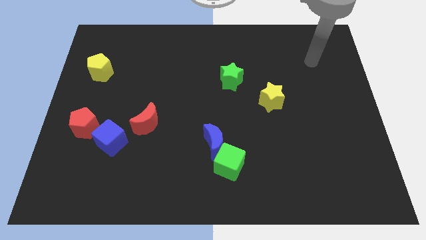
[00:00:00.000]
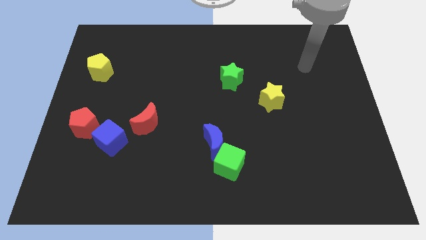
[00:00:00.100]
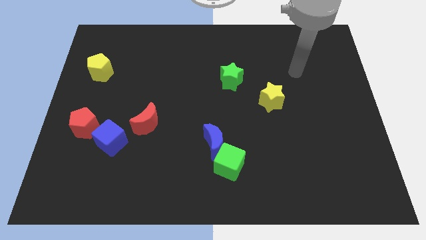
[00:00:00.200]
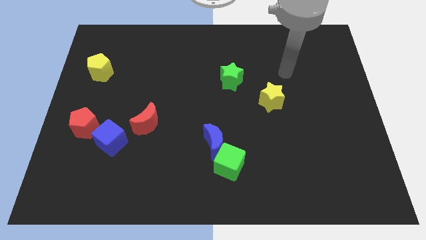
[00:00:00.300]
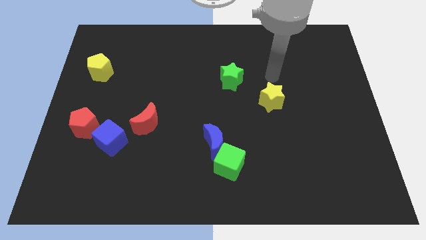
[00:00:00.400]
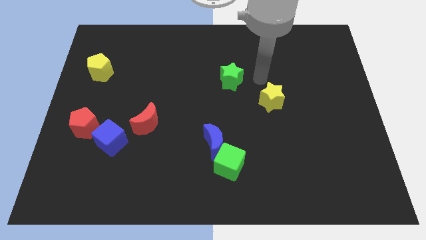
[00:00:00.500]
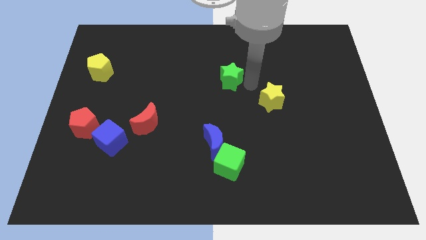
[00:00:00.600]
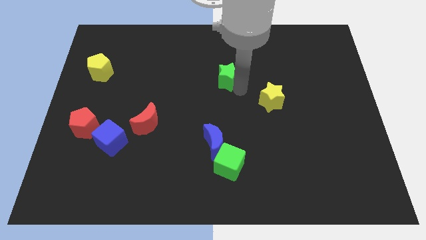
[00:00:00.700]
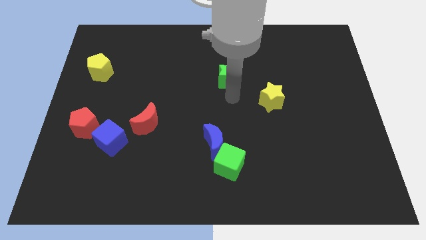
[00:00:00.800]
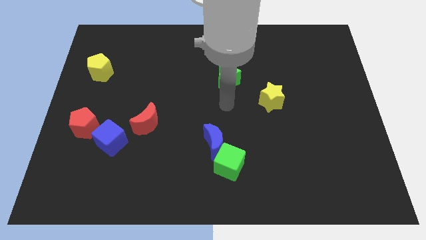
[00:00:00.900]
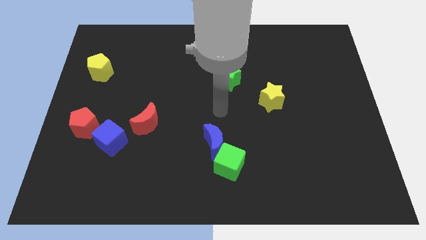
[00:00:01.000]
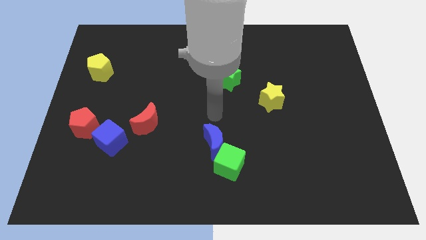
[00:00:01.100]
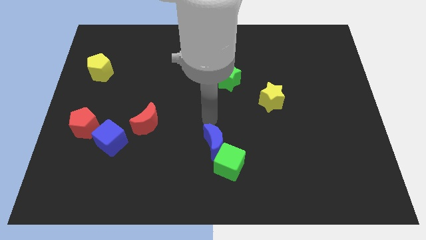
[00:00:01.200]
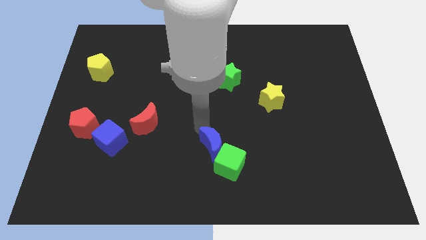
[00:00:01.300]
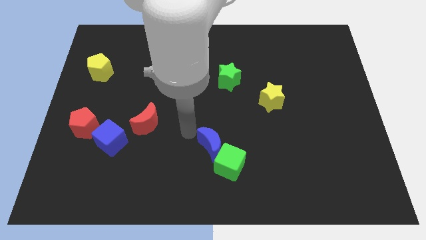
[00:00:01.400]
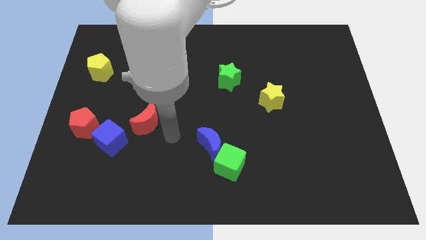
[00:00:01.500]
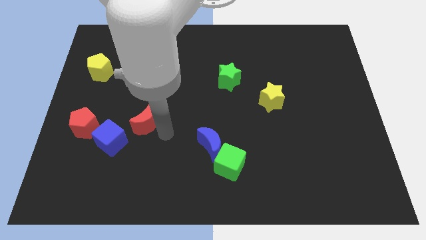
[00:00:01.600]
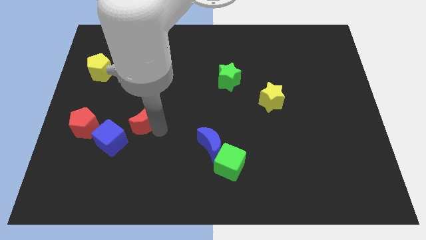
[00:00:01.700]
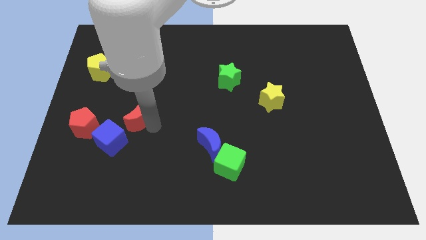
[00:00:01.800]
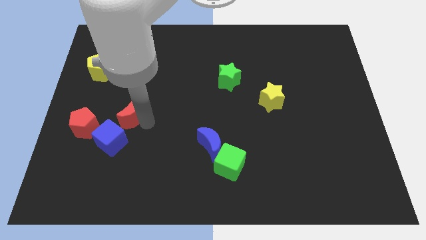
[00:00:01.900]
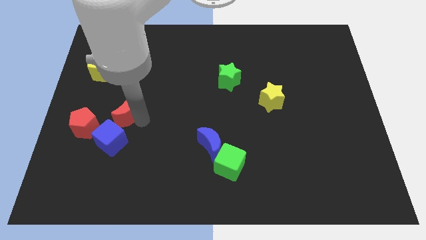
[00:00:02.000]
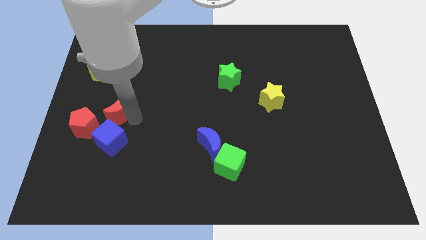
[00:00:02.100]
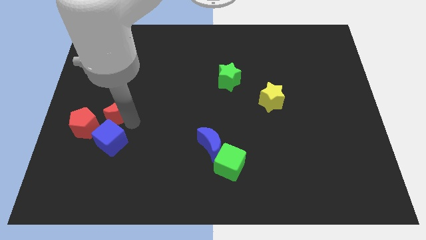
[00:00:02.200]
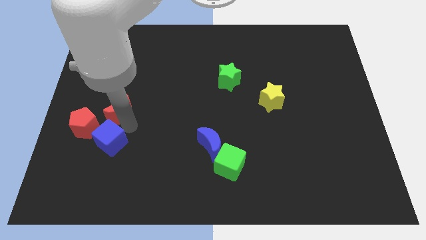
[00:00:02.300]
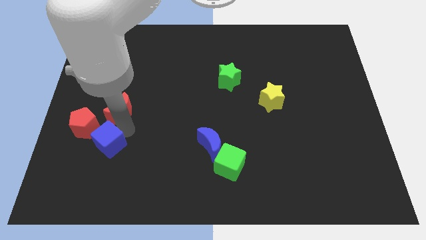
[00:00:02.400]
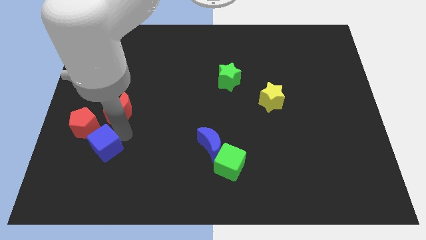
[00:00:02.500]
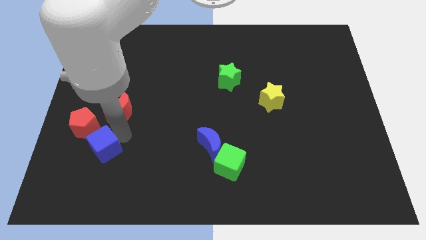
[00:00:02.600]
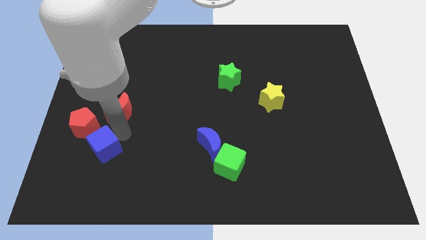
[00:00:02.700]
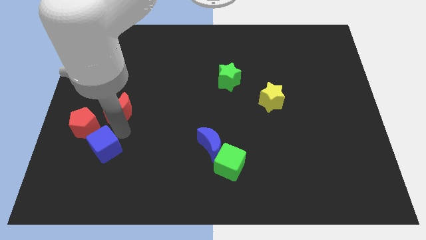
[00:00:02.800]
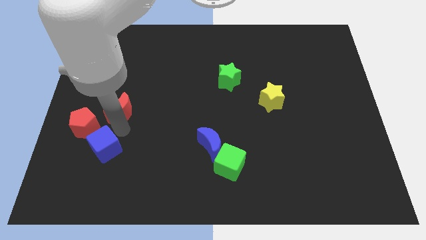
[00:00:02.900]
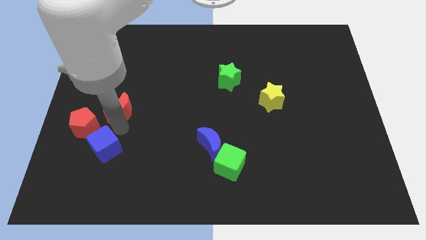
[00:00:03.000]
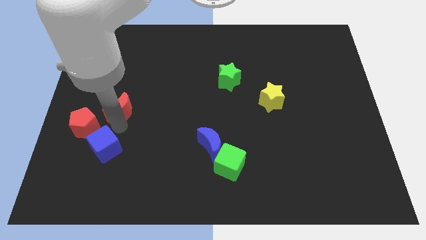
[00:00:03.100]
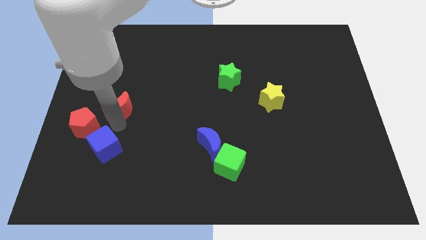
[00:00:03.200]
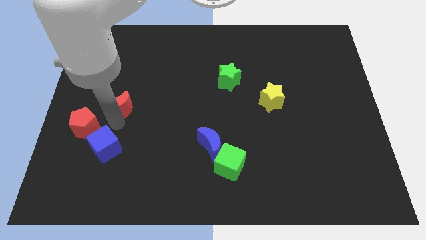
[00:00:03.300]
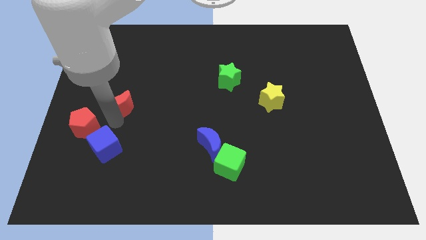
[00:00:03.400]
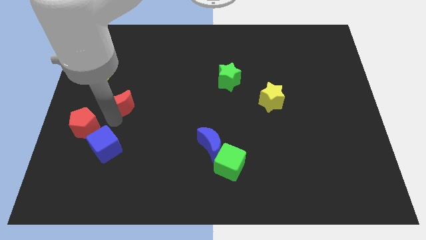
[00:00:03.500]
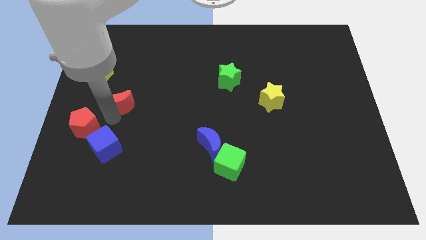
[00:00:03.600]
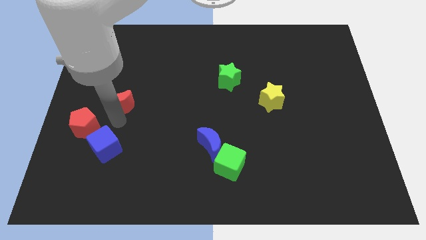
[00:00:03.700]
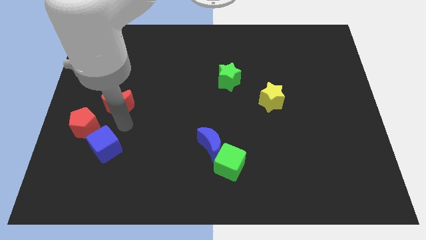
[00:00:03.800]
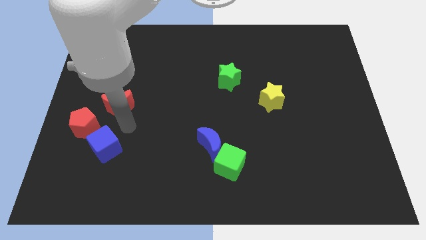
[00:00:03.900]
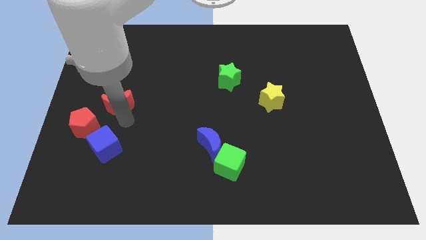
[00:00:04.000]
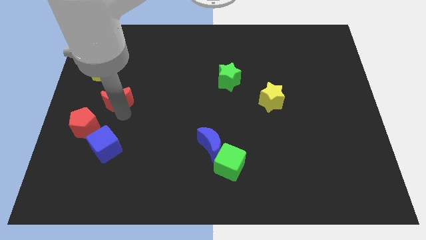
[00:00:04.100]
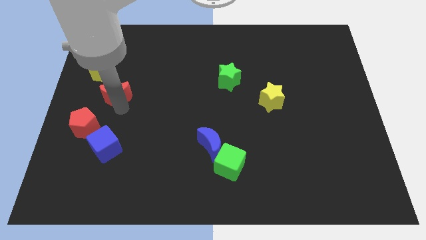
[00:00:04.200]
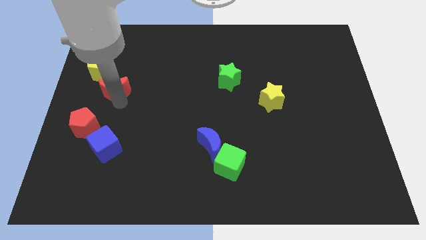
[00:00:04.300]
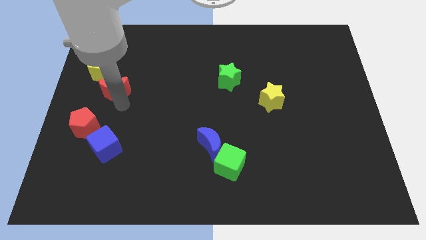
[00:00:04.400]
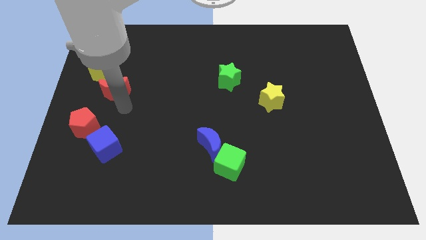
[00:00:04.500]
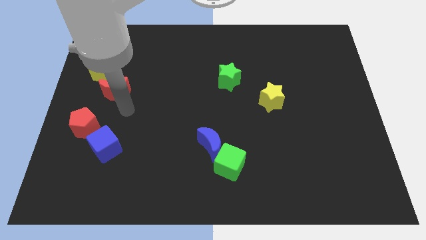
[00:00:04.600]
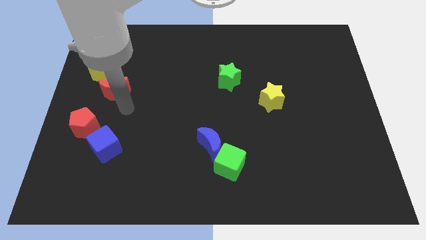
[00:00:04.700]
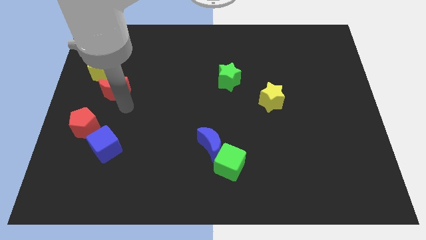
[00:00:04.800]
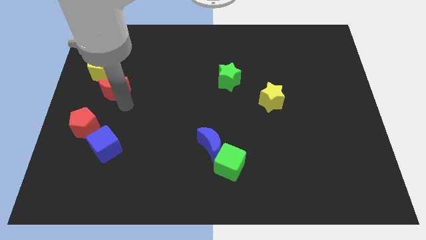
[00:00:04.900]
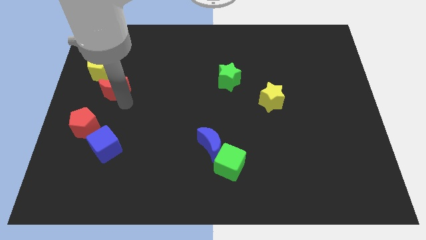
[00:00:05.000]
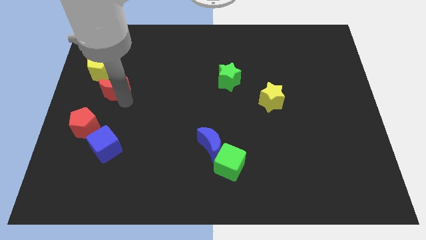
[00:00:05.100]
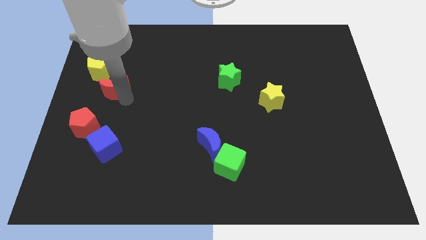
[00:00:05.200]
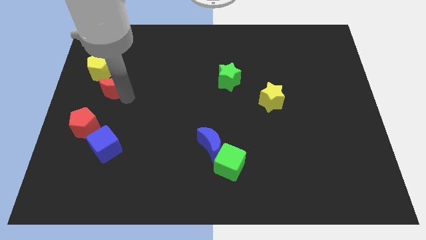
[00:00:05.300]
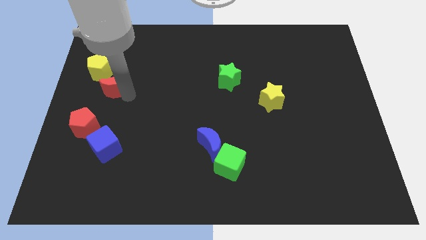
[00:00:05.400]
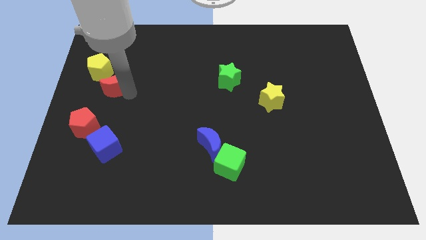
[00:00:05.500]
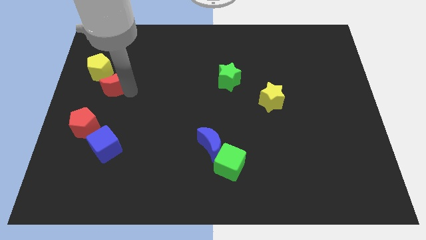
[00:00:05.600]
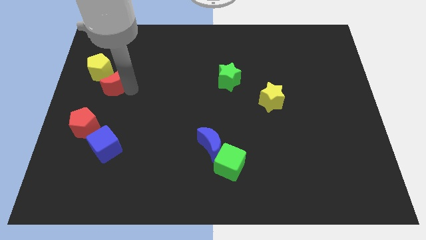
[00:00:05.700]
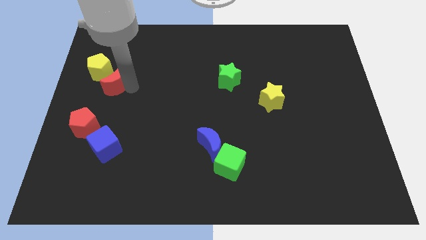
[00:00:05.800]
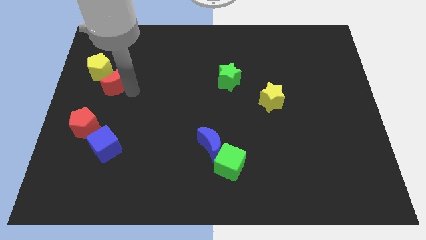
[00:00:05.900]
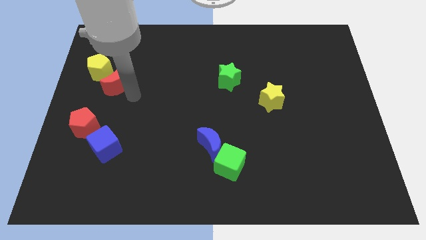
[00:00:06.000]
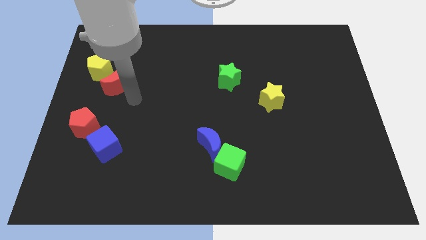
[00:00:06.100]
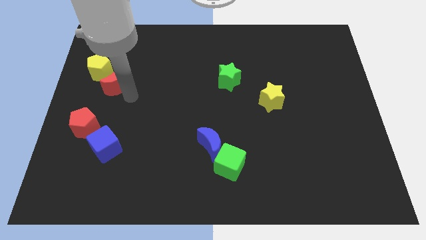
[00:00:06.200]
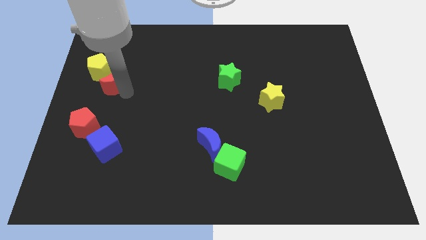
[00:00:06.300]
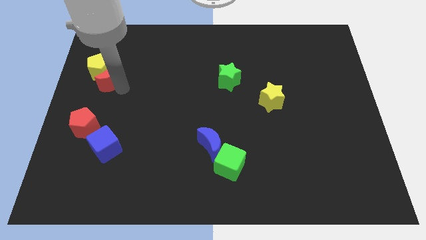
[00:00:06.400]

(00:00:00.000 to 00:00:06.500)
slide the red moon to the yellow pentagon
